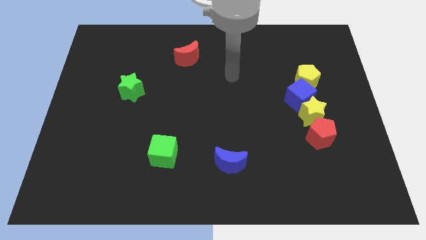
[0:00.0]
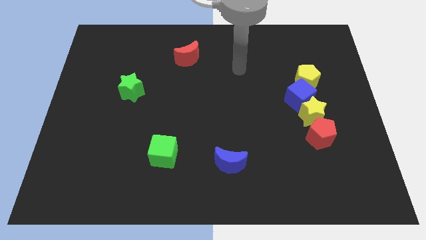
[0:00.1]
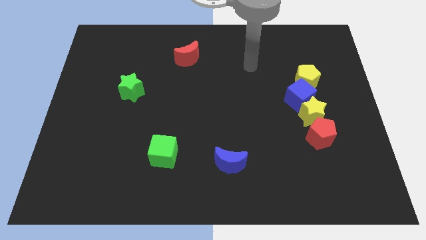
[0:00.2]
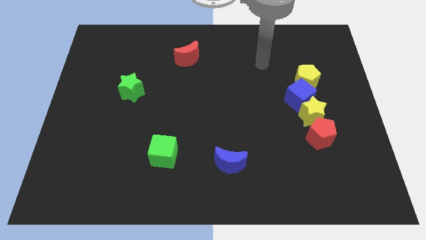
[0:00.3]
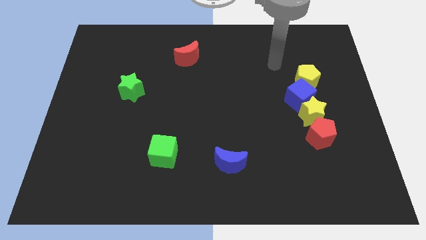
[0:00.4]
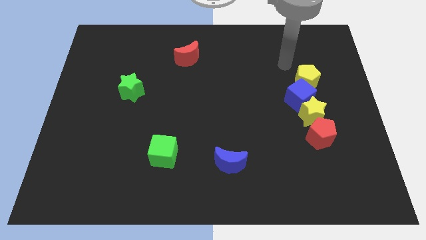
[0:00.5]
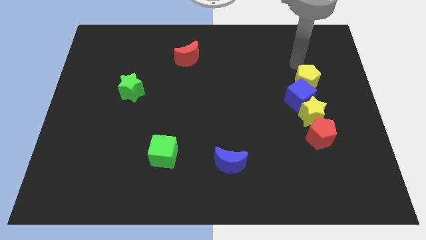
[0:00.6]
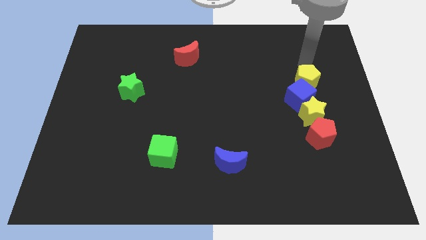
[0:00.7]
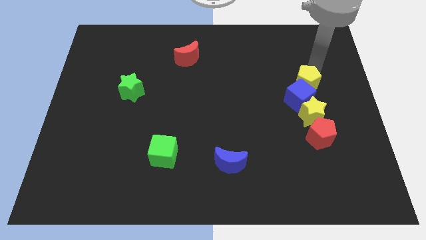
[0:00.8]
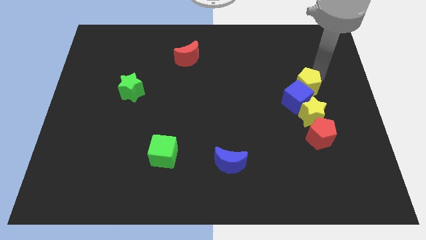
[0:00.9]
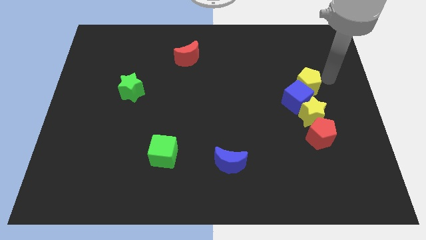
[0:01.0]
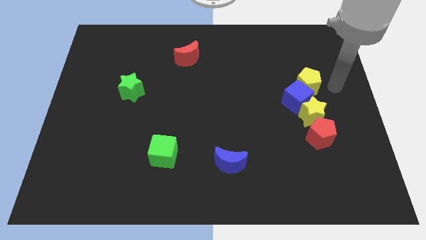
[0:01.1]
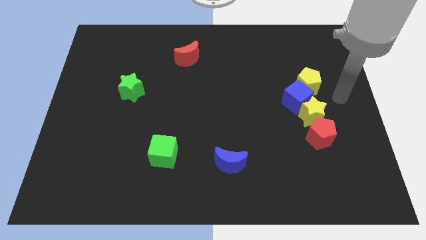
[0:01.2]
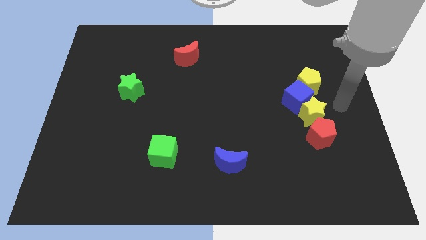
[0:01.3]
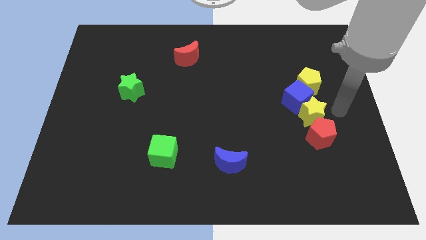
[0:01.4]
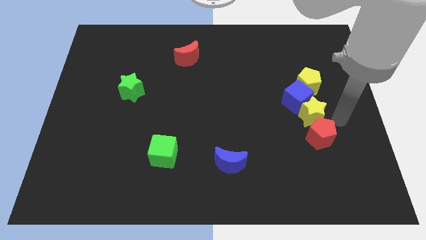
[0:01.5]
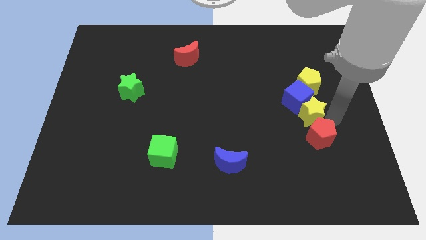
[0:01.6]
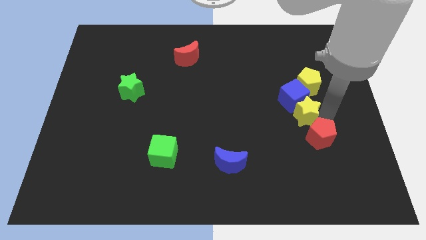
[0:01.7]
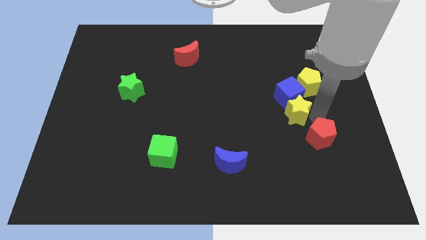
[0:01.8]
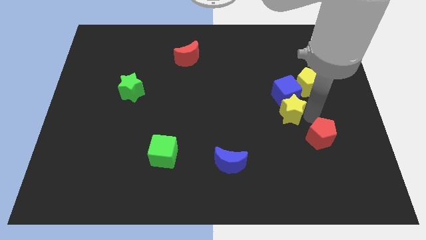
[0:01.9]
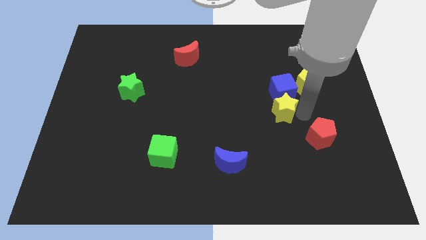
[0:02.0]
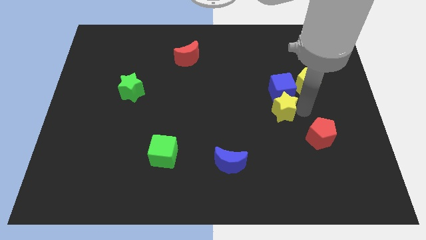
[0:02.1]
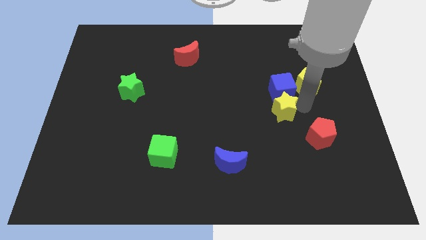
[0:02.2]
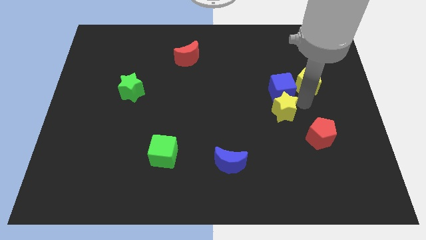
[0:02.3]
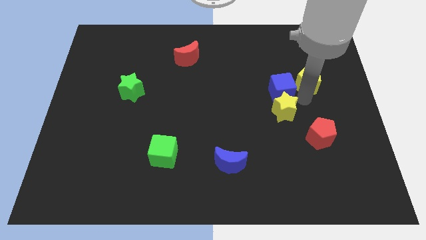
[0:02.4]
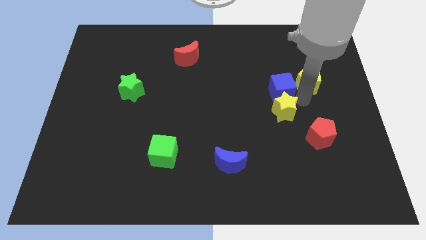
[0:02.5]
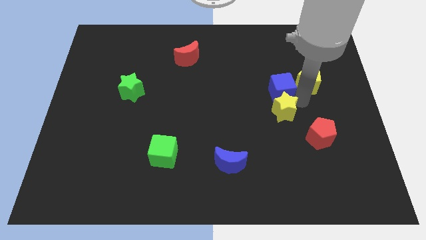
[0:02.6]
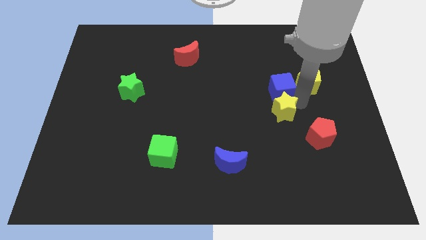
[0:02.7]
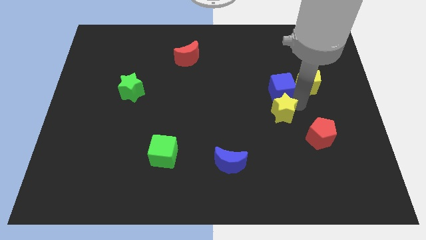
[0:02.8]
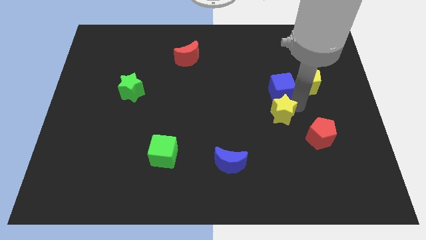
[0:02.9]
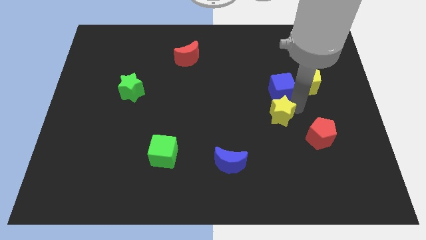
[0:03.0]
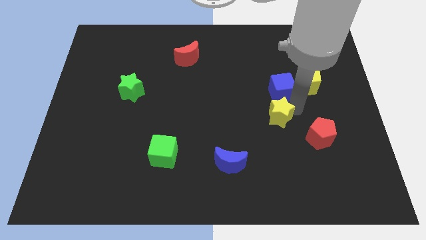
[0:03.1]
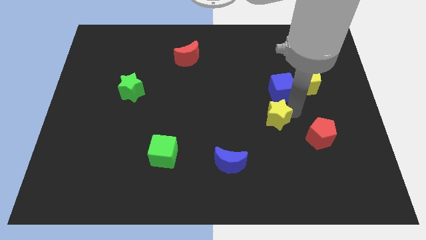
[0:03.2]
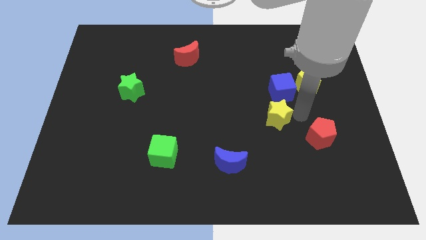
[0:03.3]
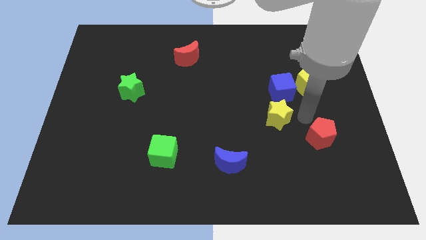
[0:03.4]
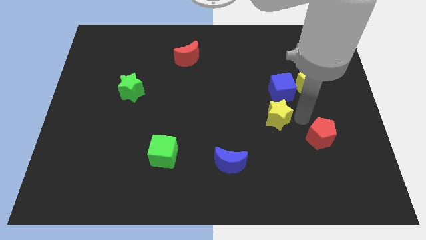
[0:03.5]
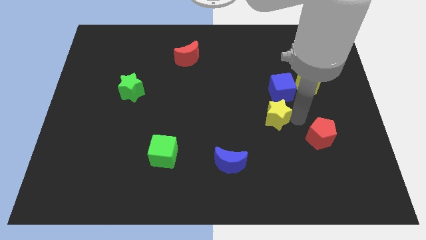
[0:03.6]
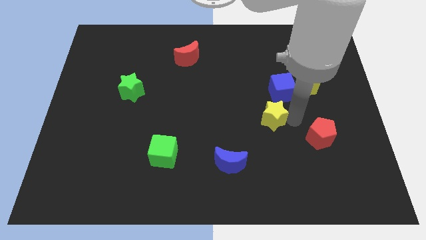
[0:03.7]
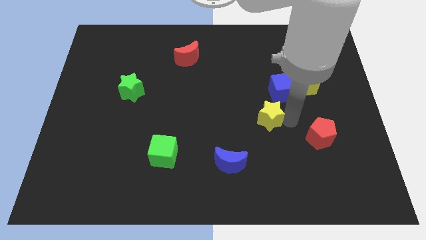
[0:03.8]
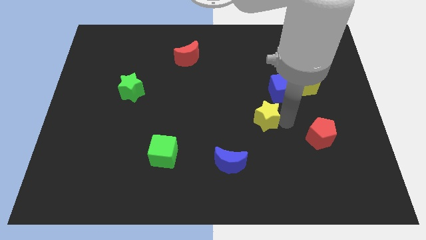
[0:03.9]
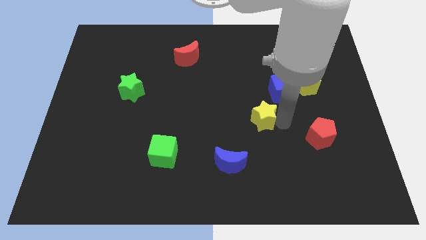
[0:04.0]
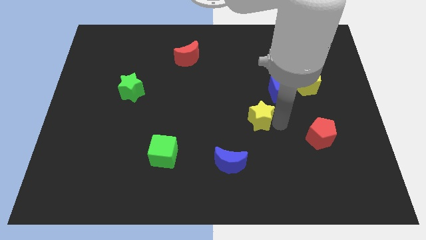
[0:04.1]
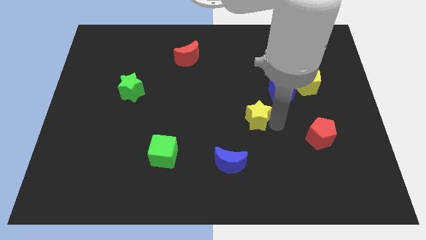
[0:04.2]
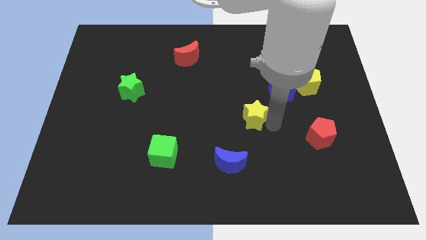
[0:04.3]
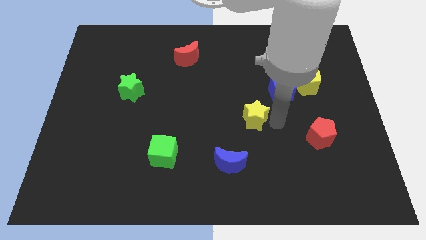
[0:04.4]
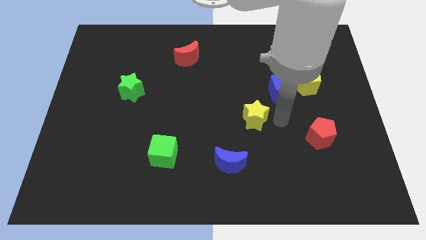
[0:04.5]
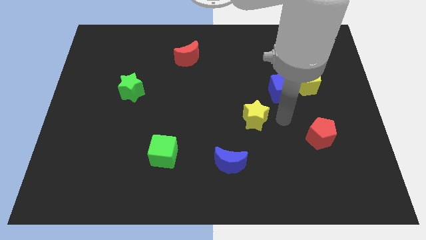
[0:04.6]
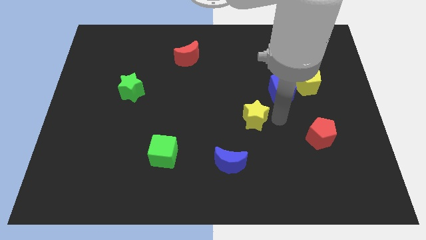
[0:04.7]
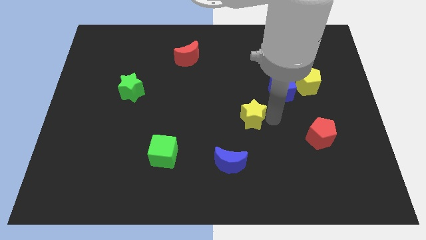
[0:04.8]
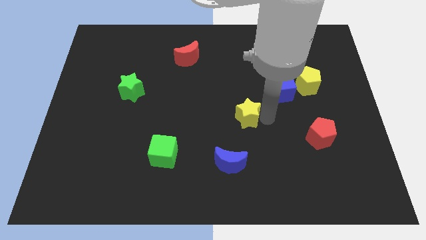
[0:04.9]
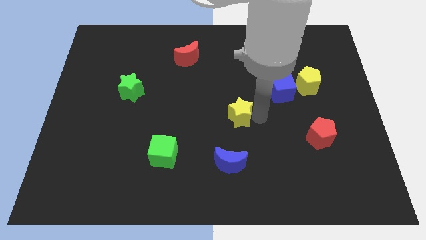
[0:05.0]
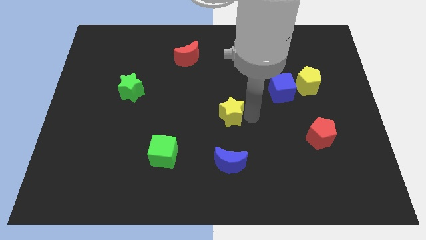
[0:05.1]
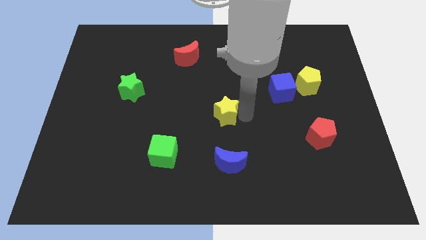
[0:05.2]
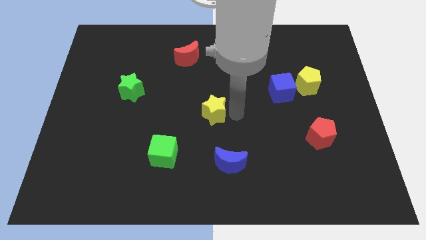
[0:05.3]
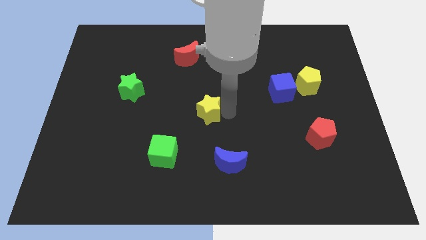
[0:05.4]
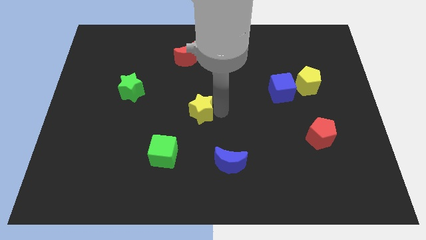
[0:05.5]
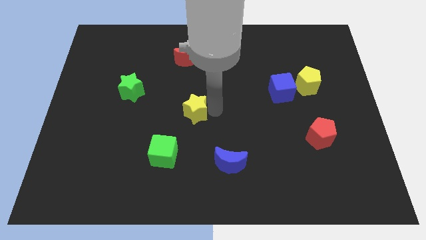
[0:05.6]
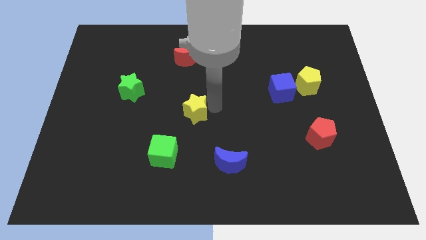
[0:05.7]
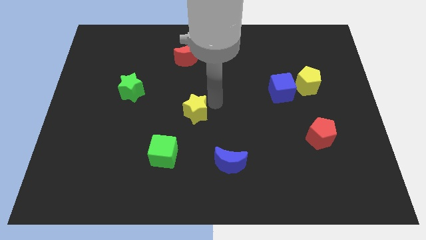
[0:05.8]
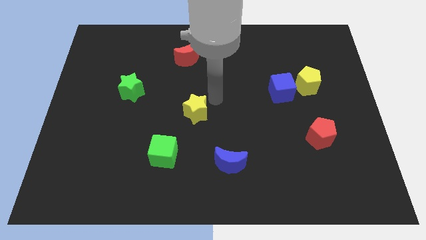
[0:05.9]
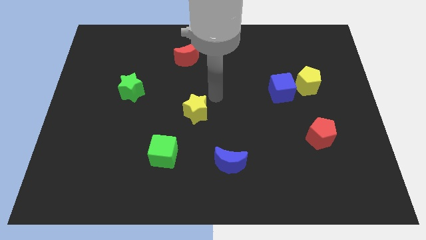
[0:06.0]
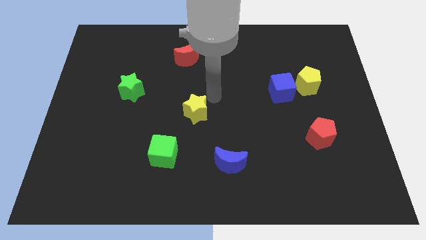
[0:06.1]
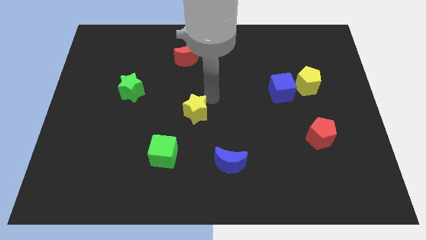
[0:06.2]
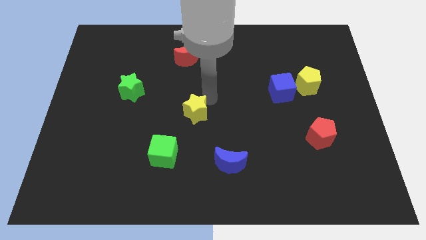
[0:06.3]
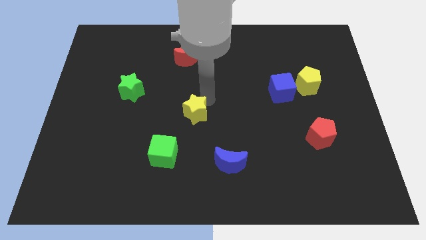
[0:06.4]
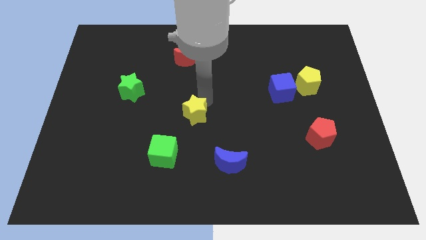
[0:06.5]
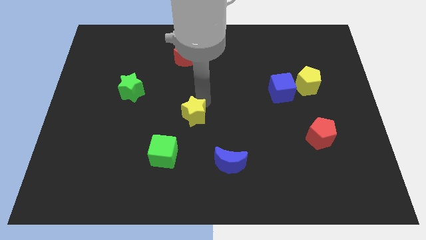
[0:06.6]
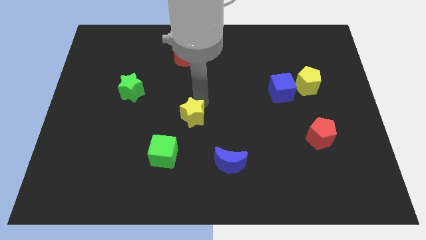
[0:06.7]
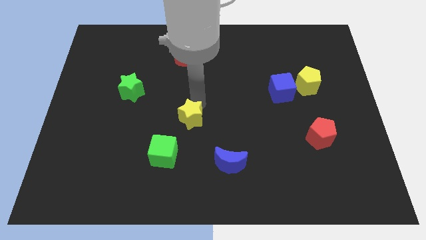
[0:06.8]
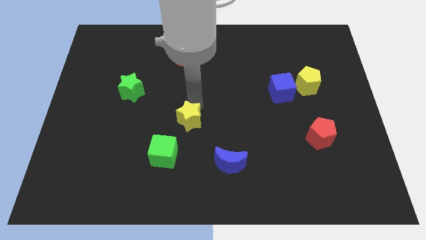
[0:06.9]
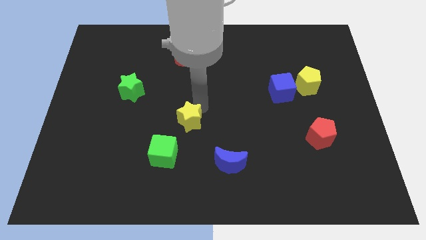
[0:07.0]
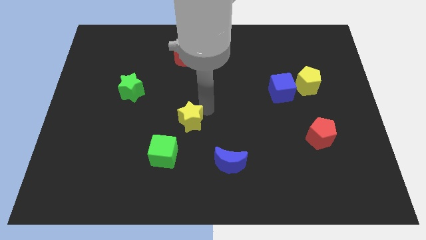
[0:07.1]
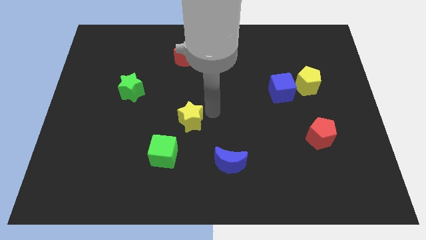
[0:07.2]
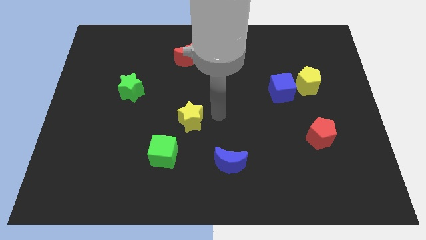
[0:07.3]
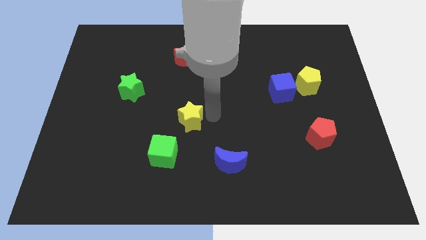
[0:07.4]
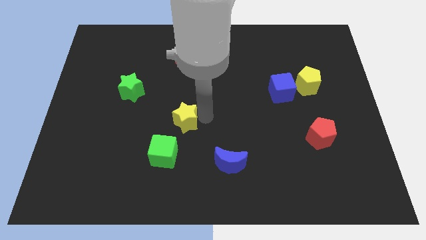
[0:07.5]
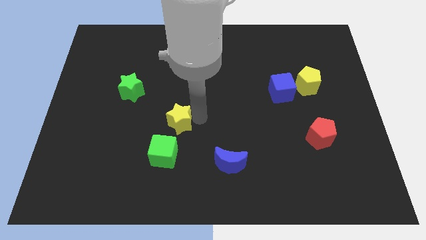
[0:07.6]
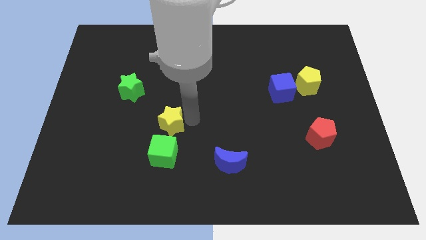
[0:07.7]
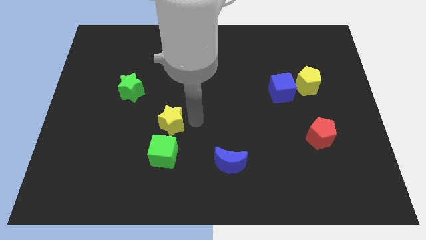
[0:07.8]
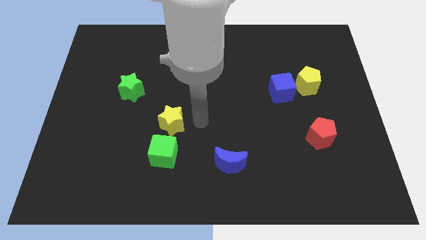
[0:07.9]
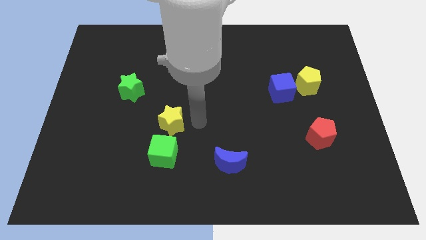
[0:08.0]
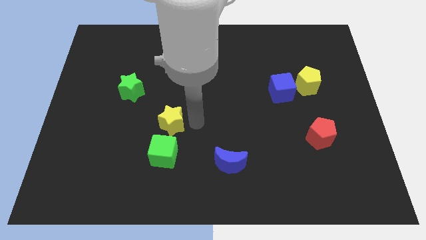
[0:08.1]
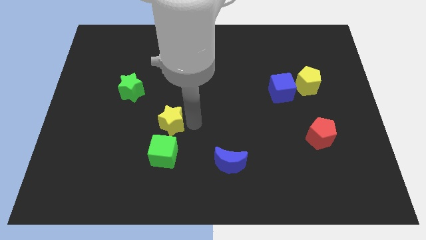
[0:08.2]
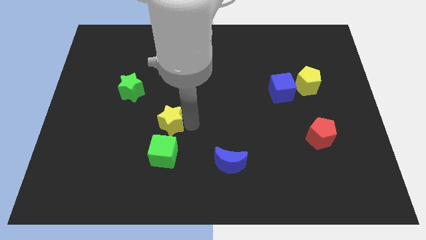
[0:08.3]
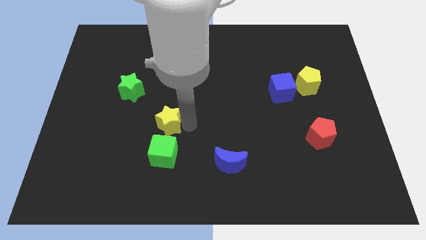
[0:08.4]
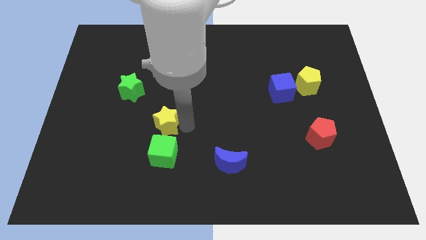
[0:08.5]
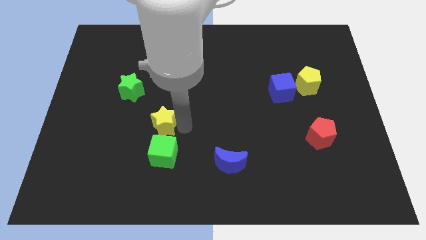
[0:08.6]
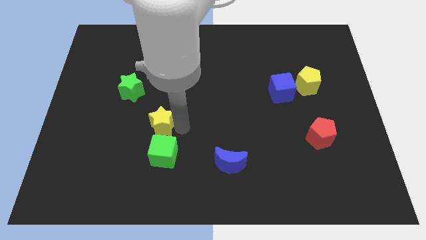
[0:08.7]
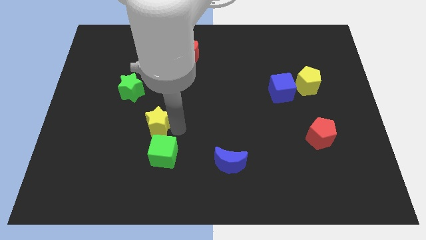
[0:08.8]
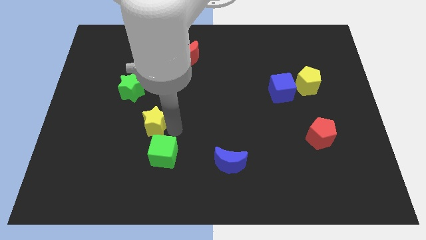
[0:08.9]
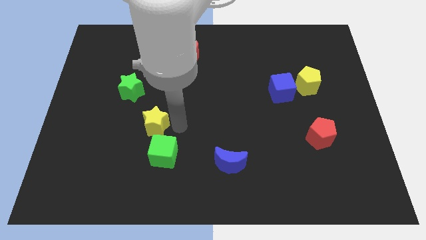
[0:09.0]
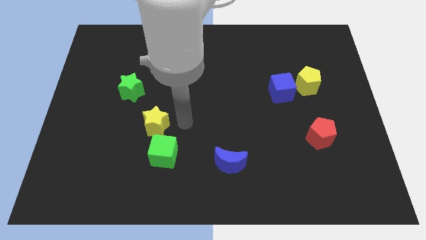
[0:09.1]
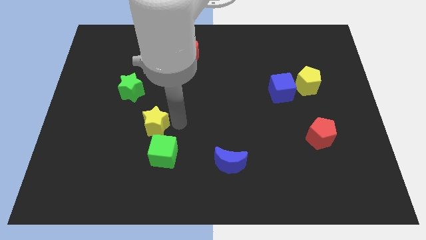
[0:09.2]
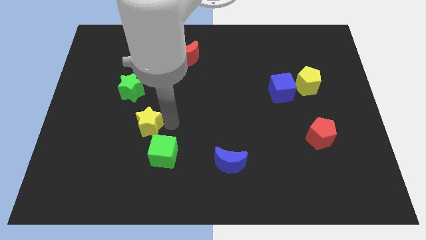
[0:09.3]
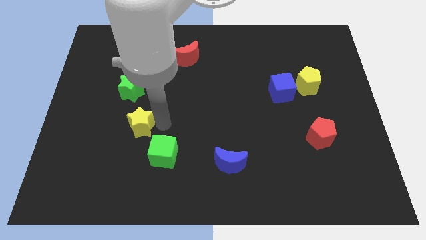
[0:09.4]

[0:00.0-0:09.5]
push the yellow star to the bottom side of the green star
